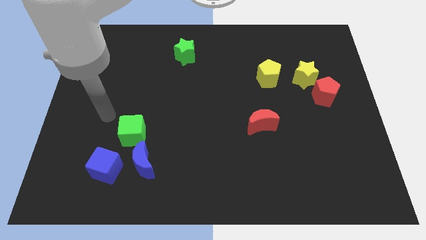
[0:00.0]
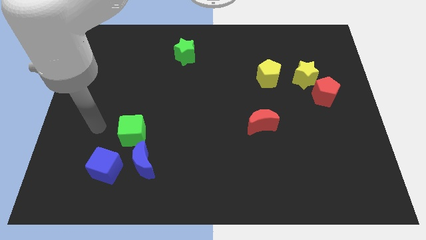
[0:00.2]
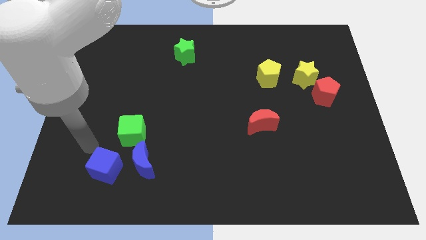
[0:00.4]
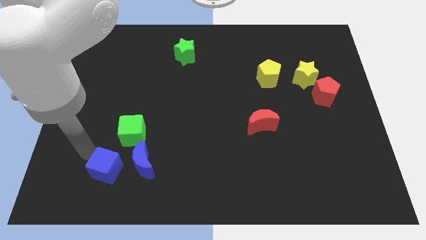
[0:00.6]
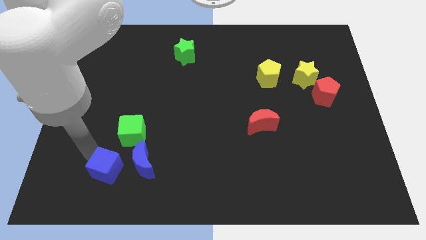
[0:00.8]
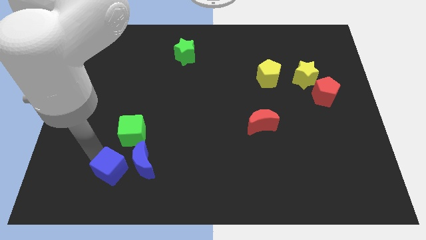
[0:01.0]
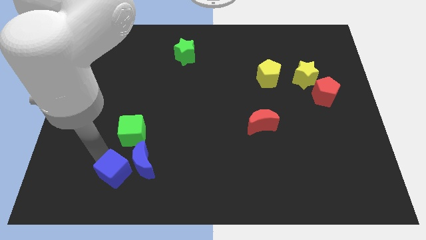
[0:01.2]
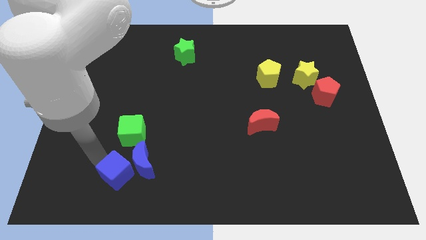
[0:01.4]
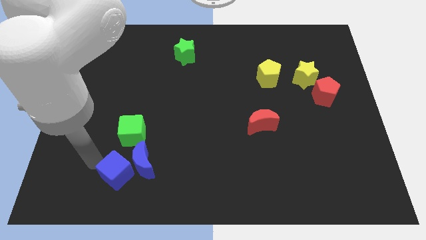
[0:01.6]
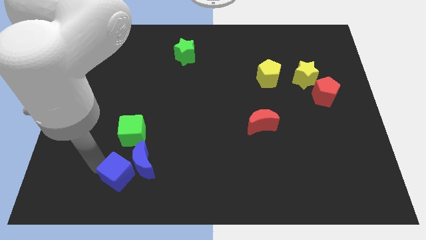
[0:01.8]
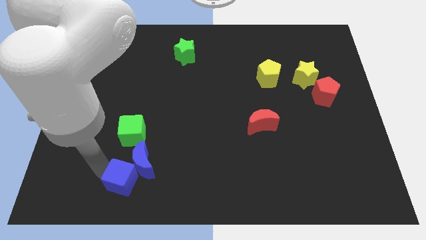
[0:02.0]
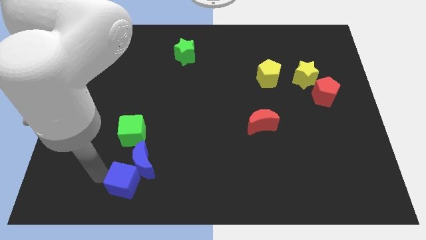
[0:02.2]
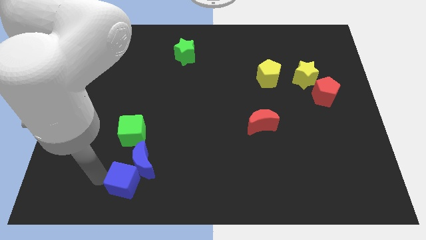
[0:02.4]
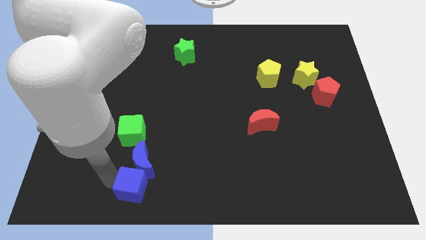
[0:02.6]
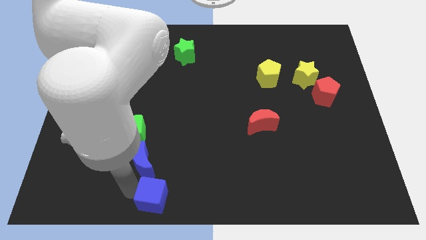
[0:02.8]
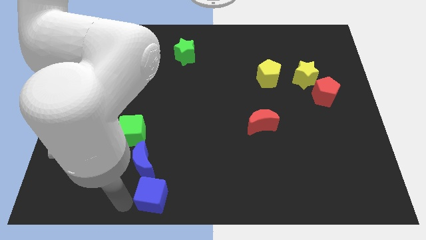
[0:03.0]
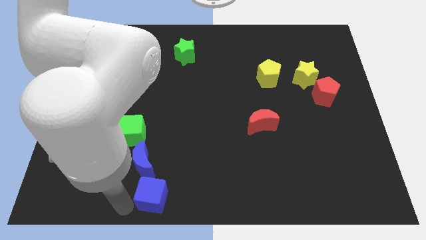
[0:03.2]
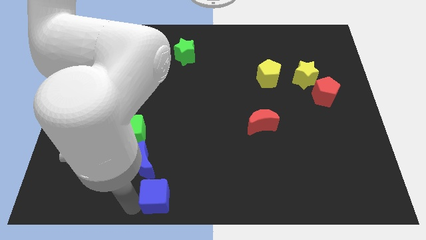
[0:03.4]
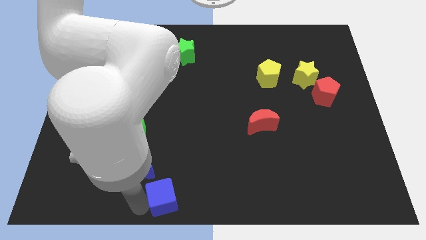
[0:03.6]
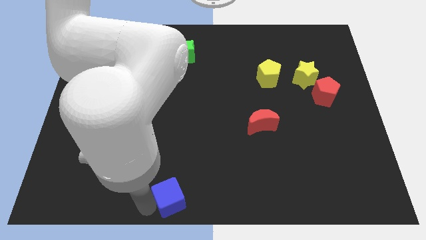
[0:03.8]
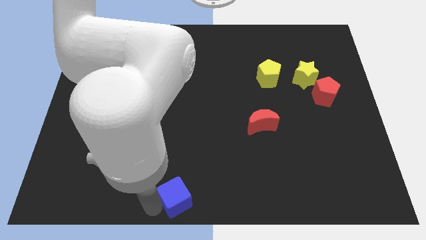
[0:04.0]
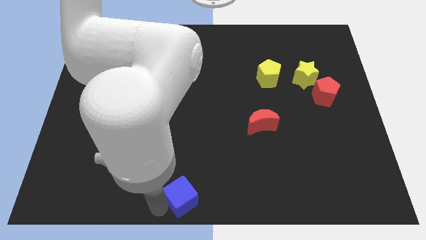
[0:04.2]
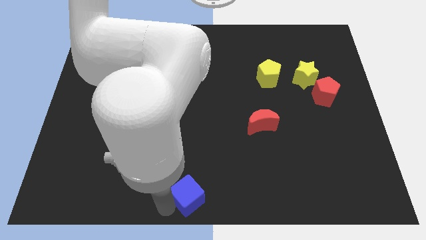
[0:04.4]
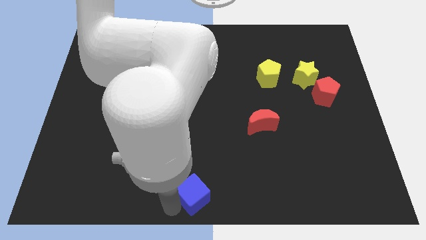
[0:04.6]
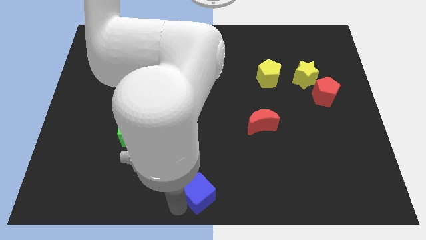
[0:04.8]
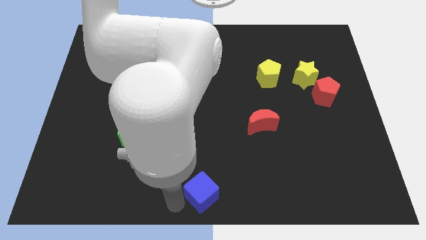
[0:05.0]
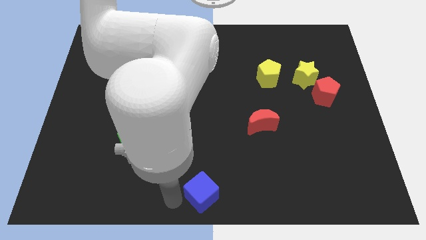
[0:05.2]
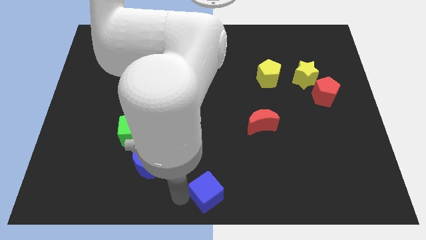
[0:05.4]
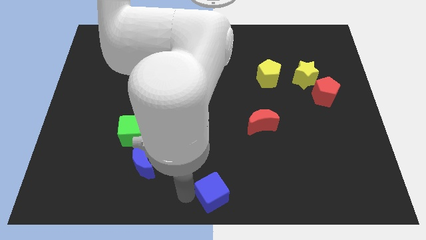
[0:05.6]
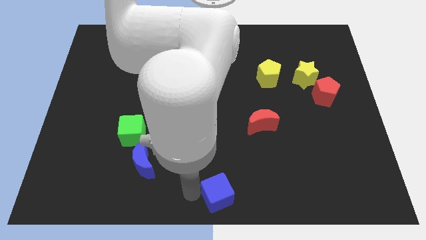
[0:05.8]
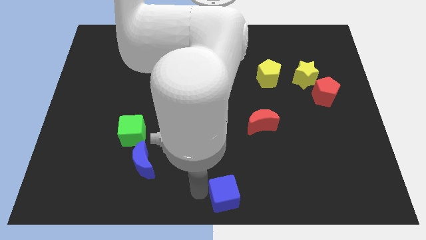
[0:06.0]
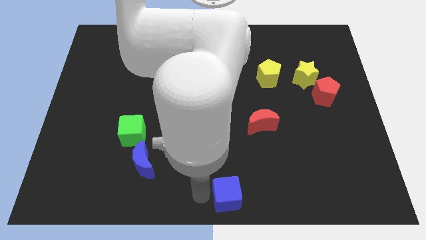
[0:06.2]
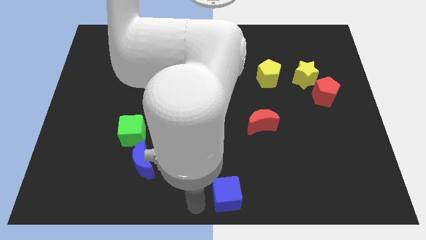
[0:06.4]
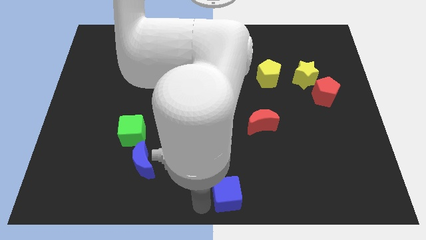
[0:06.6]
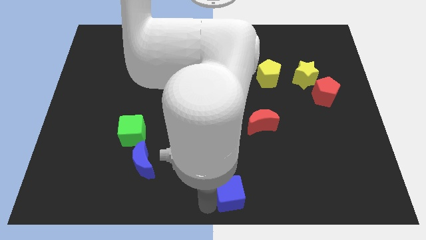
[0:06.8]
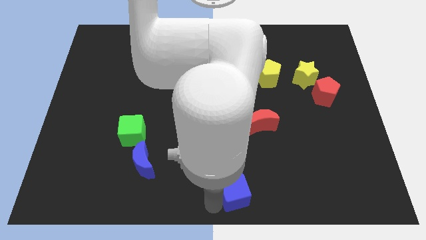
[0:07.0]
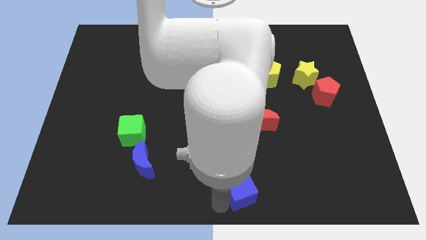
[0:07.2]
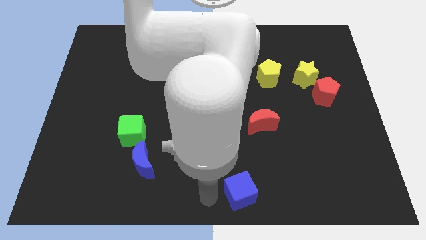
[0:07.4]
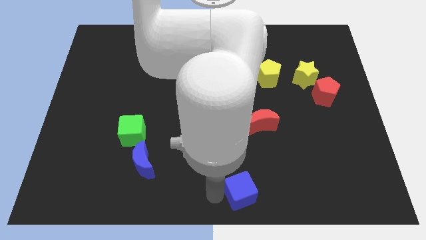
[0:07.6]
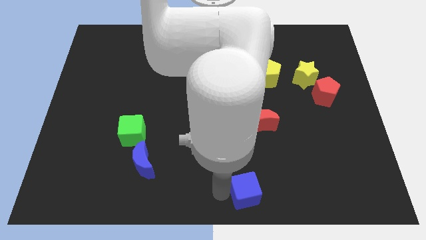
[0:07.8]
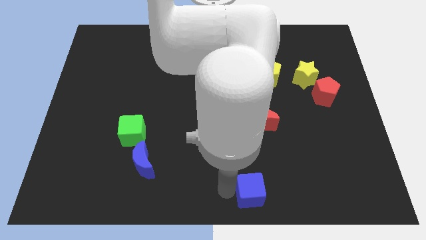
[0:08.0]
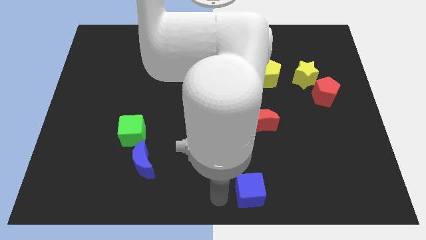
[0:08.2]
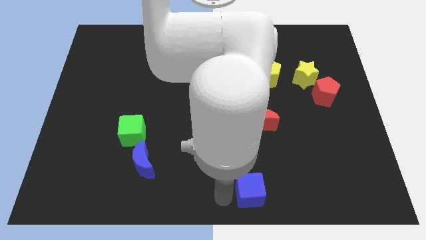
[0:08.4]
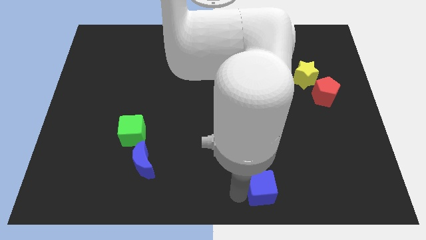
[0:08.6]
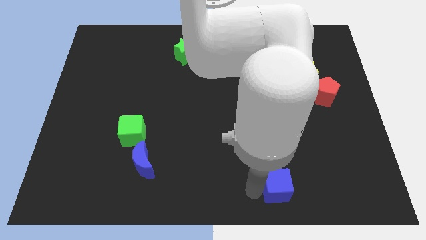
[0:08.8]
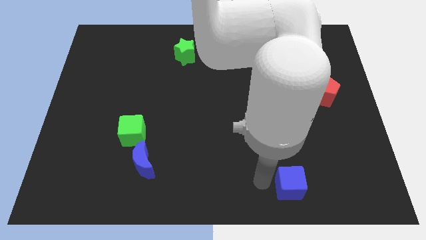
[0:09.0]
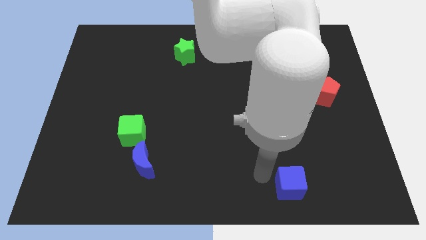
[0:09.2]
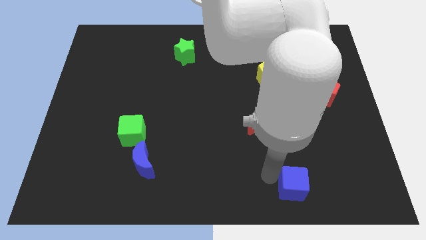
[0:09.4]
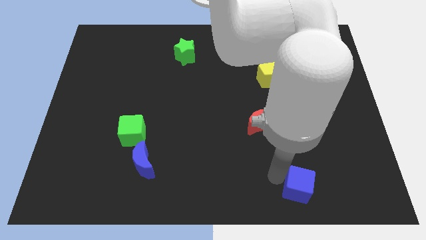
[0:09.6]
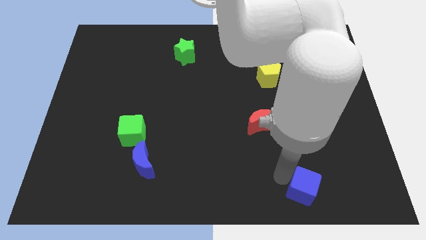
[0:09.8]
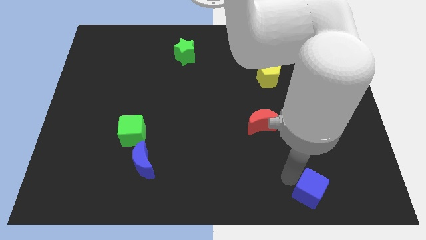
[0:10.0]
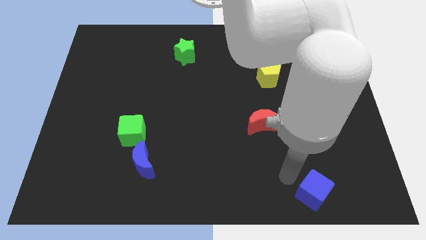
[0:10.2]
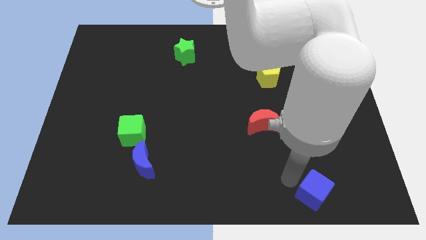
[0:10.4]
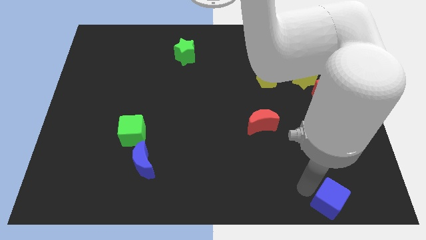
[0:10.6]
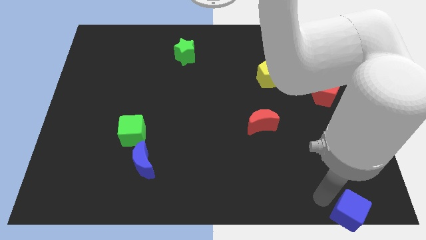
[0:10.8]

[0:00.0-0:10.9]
slide the blue cube to the bottom right

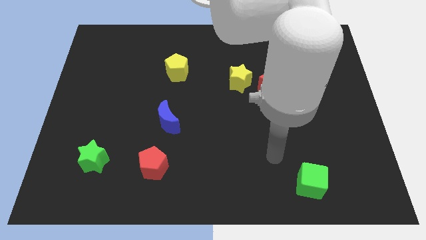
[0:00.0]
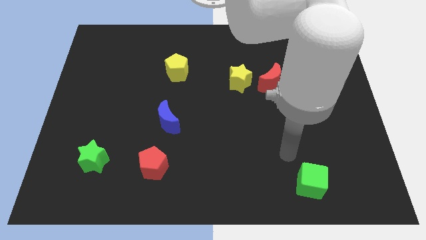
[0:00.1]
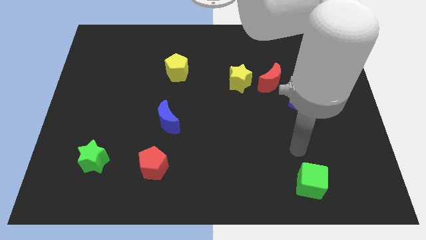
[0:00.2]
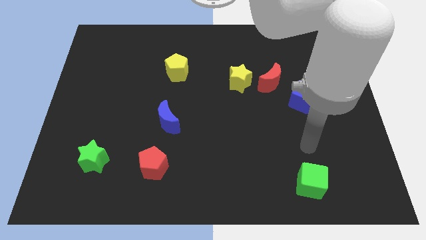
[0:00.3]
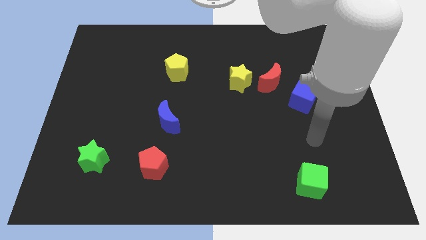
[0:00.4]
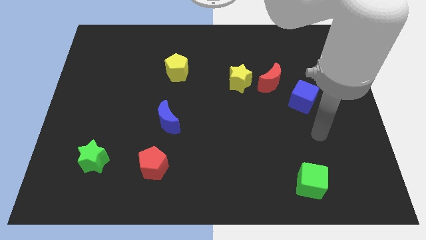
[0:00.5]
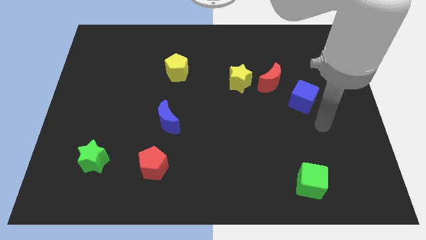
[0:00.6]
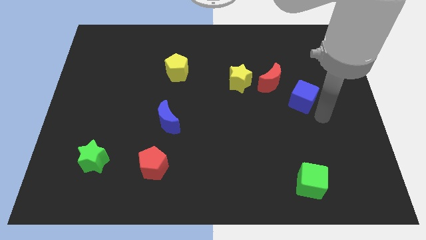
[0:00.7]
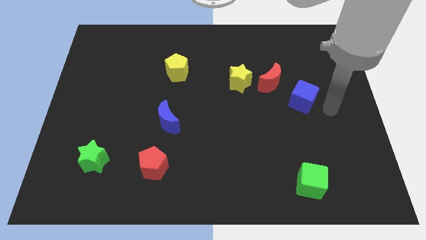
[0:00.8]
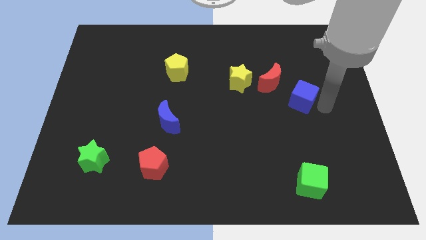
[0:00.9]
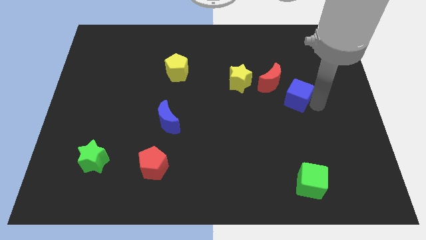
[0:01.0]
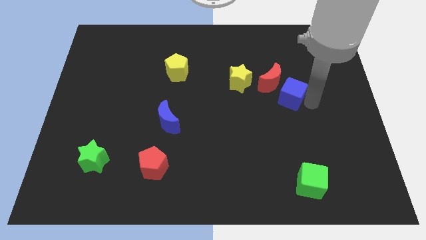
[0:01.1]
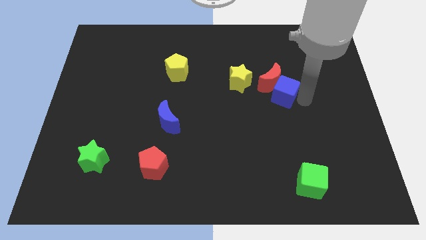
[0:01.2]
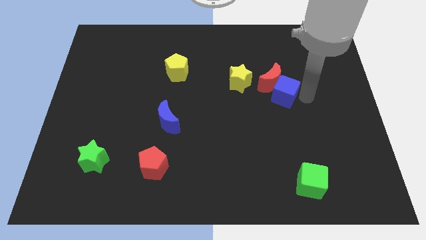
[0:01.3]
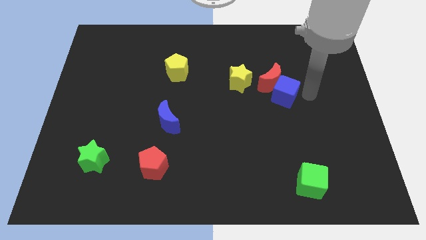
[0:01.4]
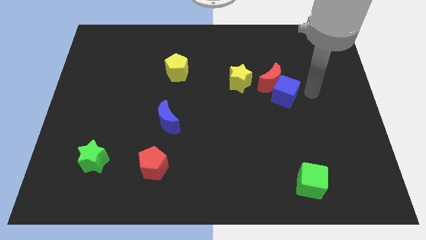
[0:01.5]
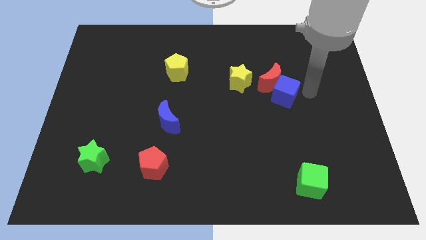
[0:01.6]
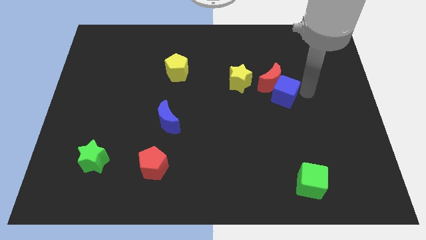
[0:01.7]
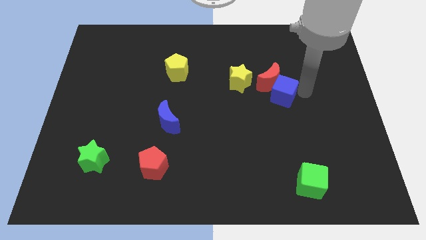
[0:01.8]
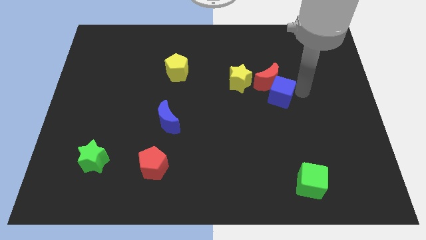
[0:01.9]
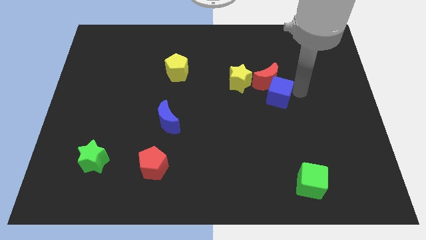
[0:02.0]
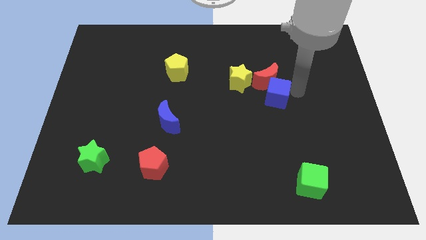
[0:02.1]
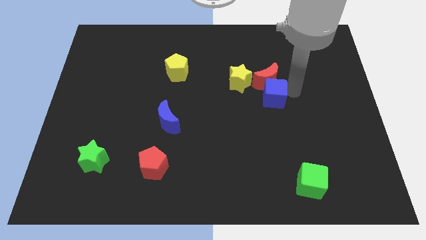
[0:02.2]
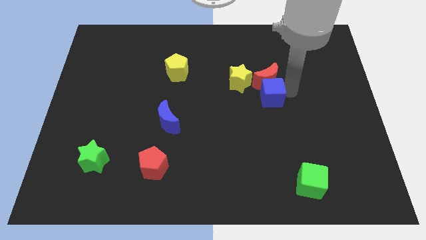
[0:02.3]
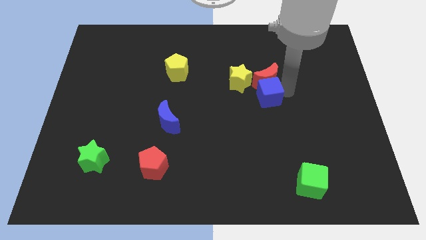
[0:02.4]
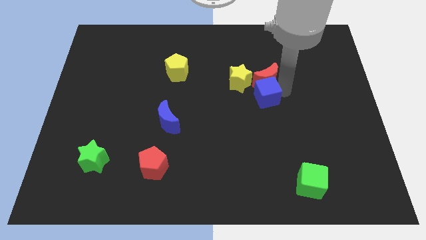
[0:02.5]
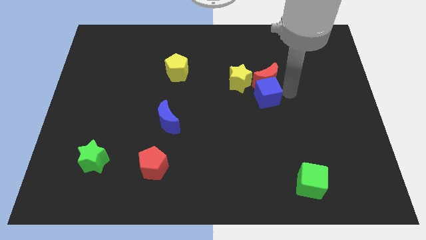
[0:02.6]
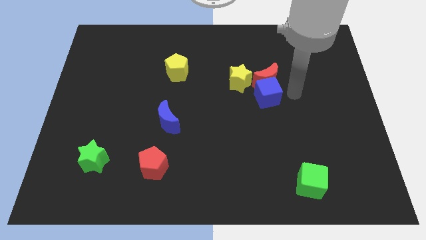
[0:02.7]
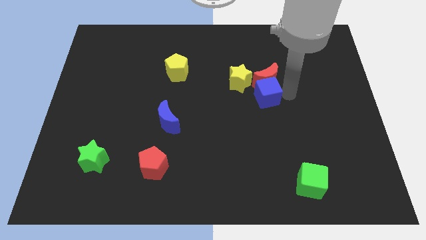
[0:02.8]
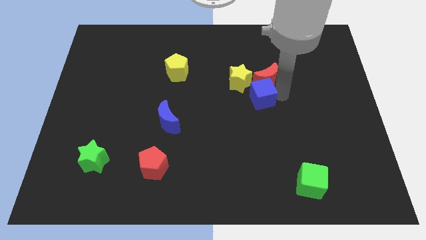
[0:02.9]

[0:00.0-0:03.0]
put the blue cube to the center of the board
